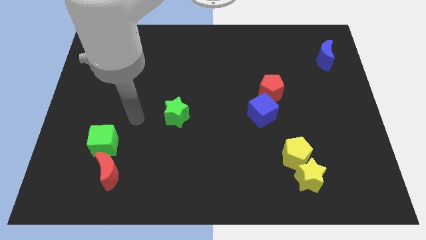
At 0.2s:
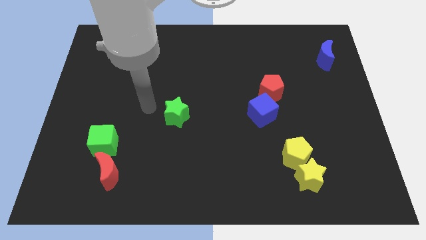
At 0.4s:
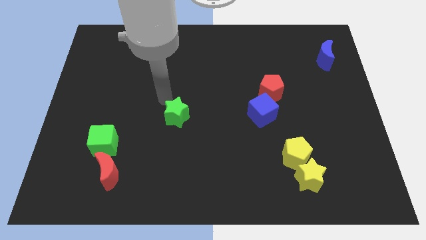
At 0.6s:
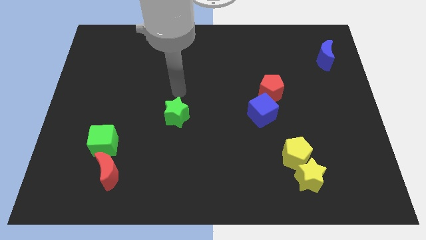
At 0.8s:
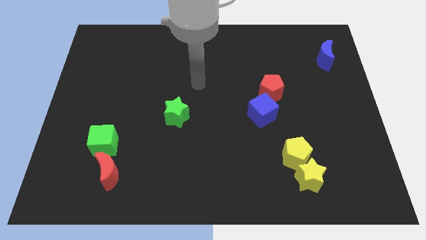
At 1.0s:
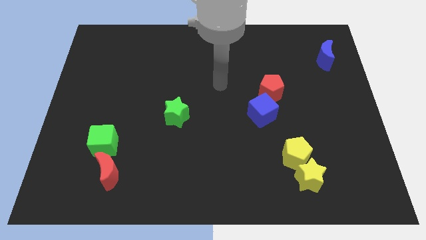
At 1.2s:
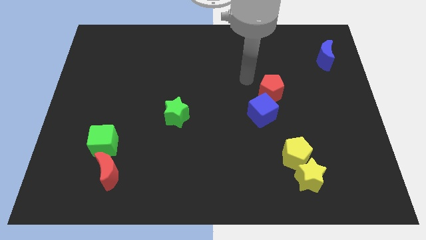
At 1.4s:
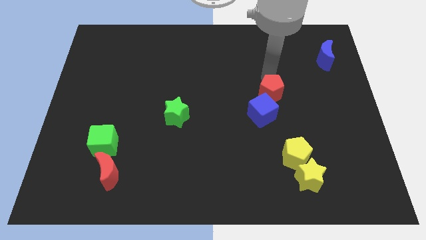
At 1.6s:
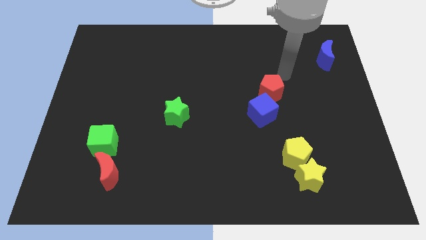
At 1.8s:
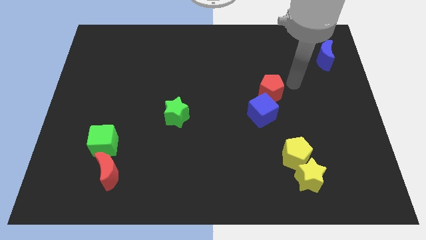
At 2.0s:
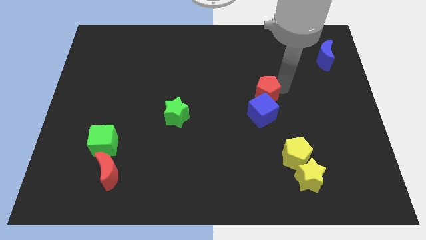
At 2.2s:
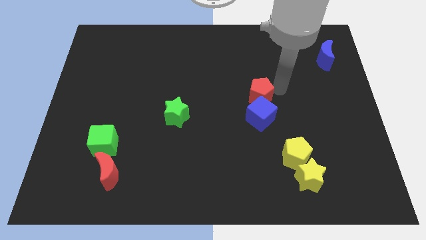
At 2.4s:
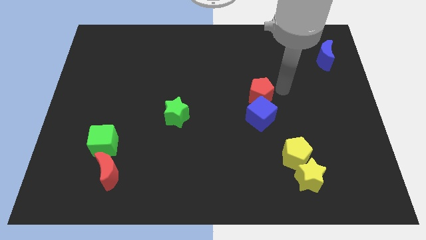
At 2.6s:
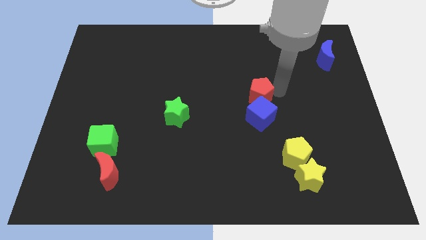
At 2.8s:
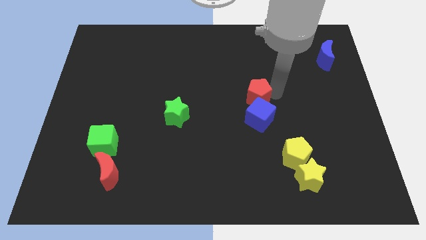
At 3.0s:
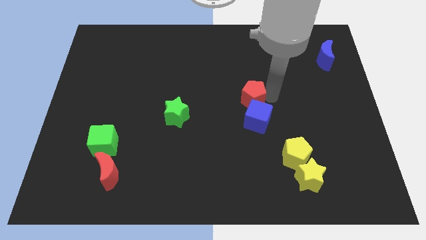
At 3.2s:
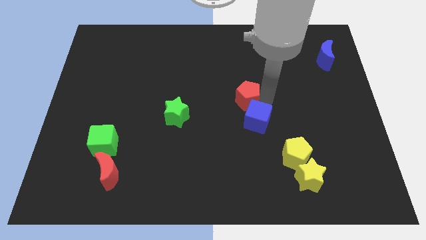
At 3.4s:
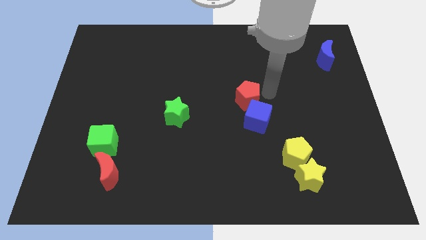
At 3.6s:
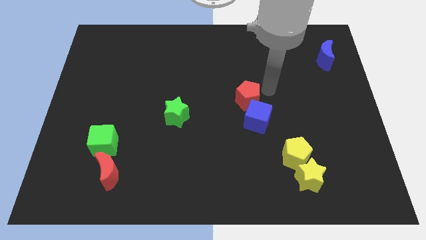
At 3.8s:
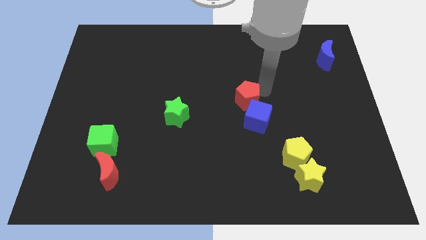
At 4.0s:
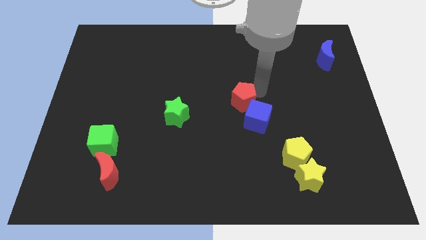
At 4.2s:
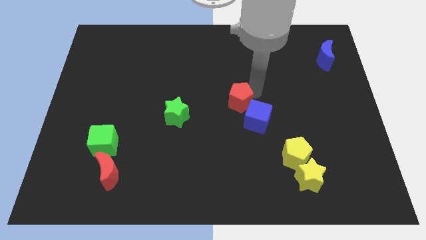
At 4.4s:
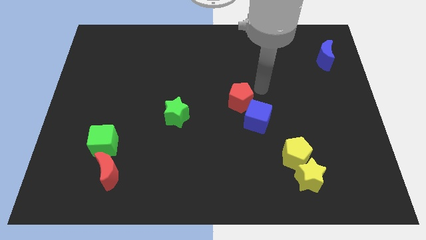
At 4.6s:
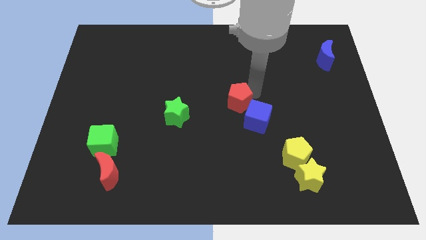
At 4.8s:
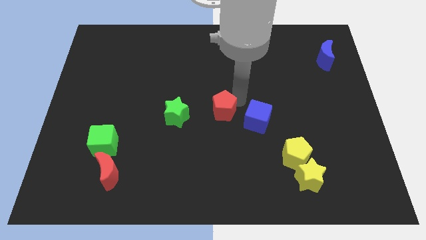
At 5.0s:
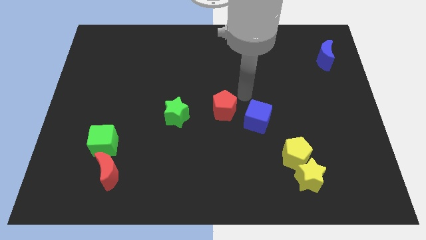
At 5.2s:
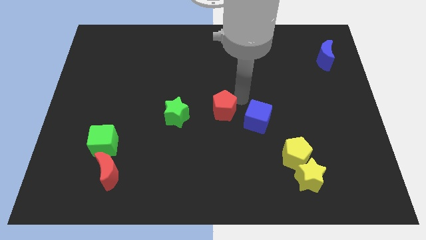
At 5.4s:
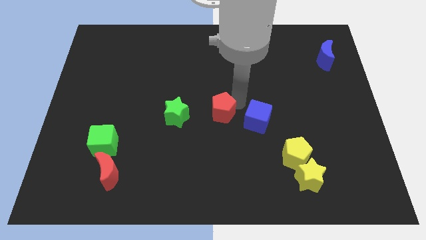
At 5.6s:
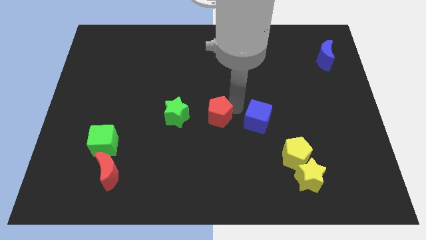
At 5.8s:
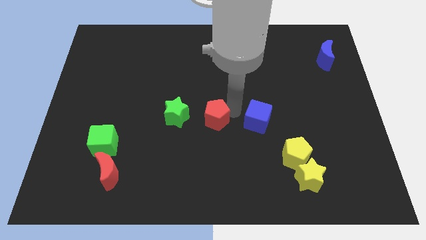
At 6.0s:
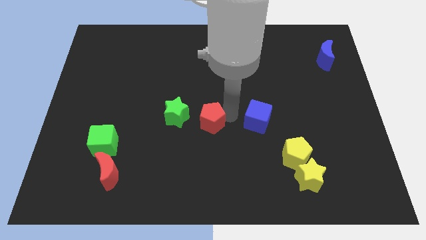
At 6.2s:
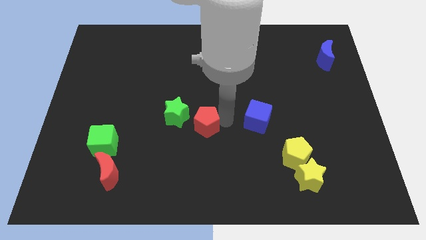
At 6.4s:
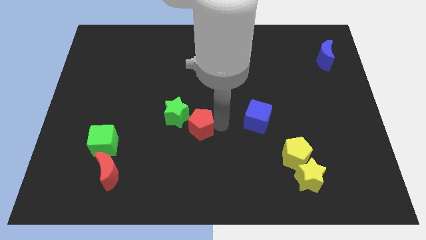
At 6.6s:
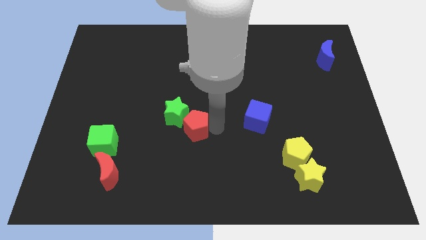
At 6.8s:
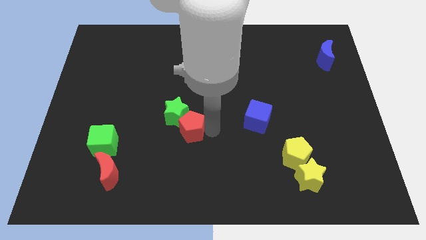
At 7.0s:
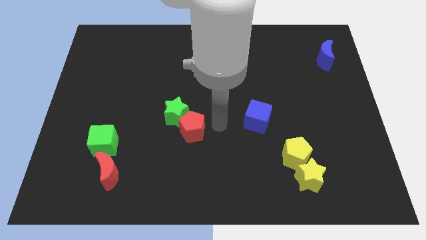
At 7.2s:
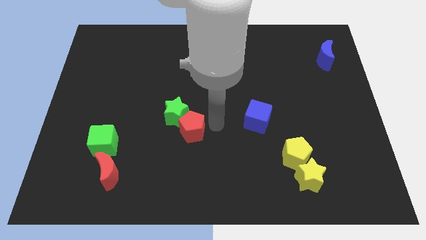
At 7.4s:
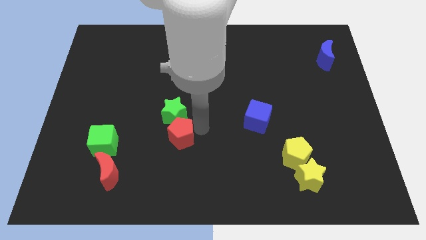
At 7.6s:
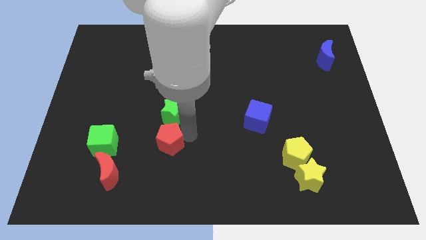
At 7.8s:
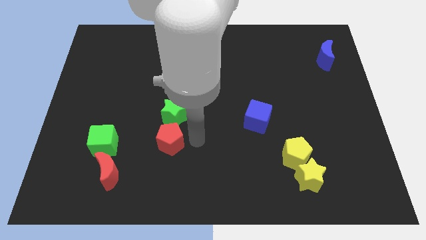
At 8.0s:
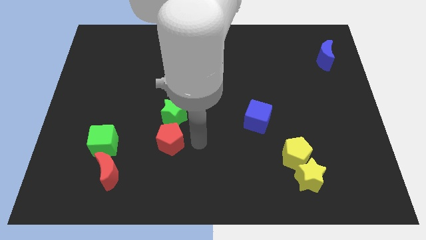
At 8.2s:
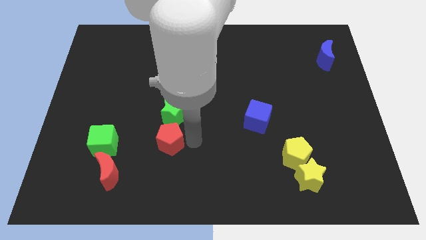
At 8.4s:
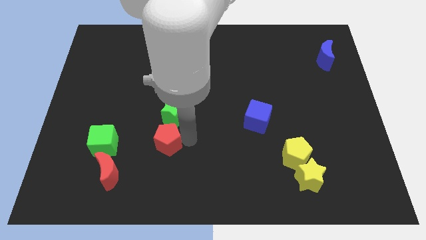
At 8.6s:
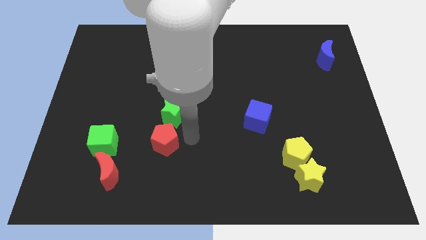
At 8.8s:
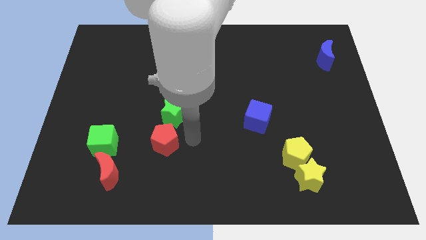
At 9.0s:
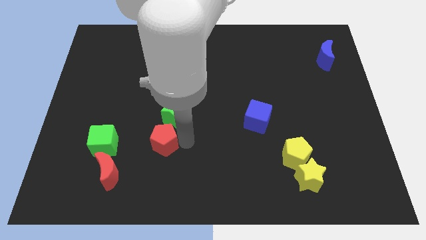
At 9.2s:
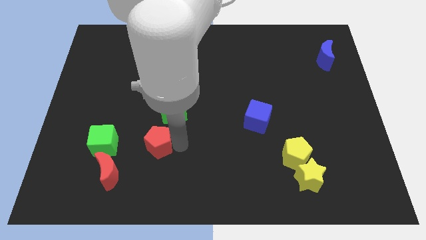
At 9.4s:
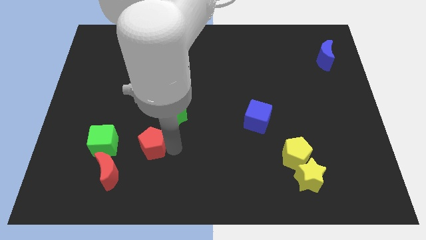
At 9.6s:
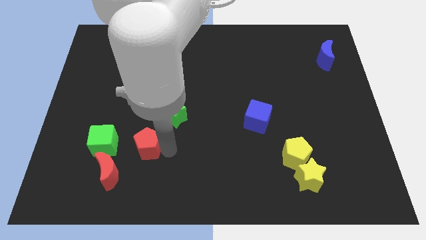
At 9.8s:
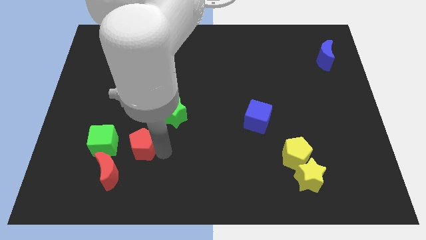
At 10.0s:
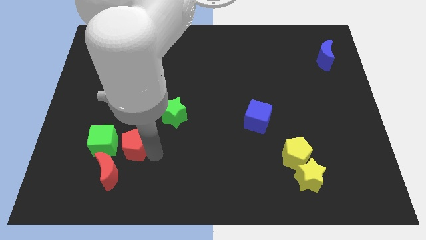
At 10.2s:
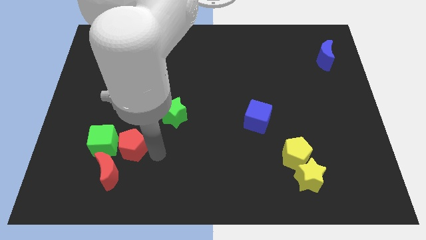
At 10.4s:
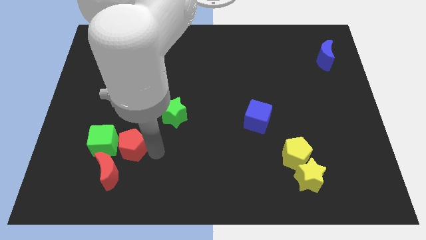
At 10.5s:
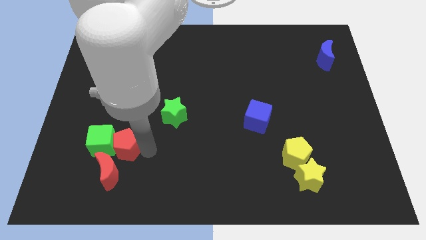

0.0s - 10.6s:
put the red pentagon to the green cube

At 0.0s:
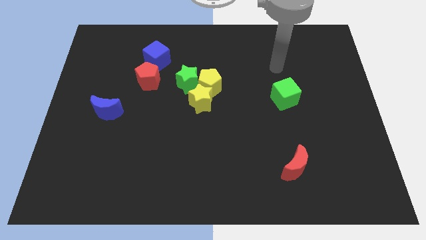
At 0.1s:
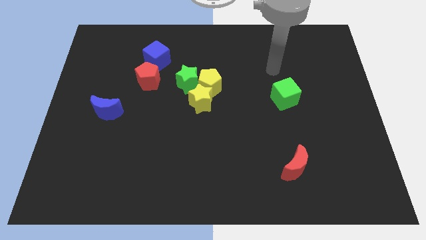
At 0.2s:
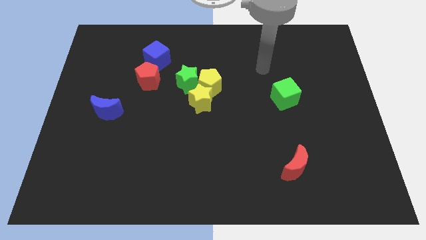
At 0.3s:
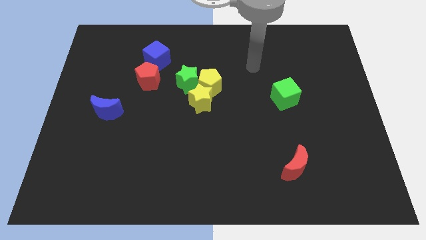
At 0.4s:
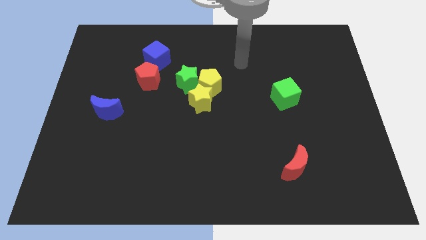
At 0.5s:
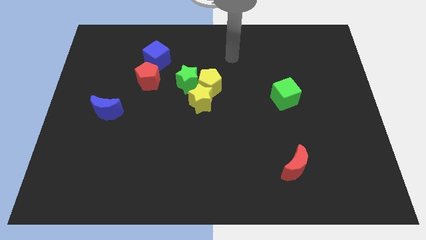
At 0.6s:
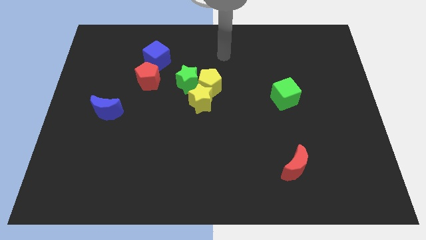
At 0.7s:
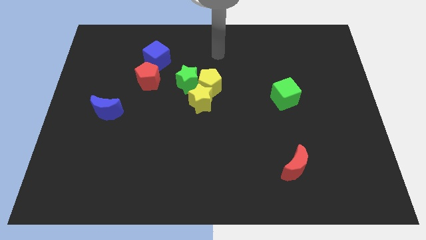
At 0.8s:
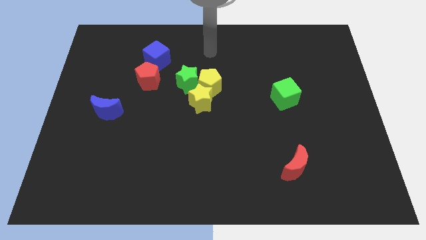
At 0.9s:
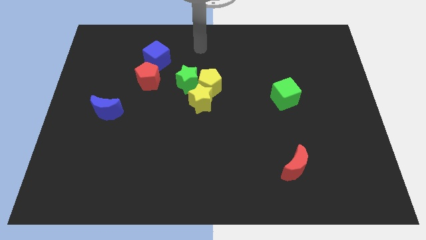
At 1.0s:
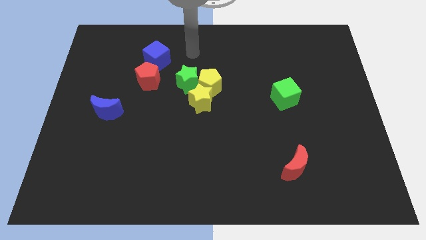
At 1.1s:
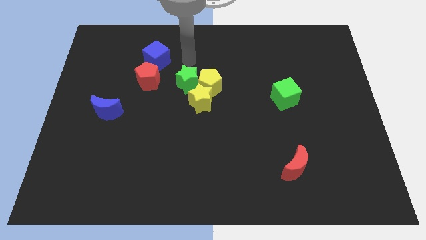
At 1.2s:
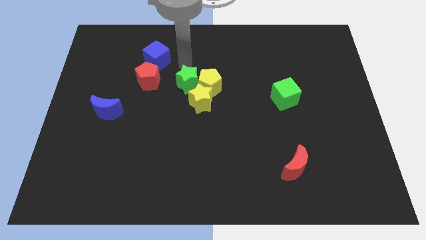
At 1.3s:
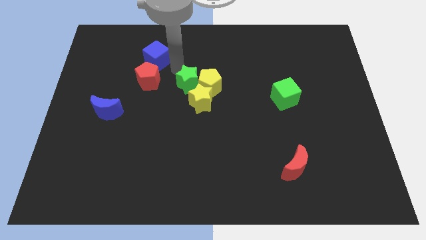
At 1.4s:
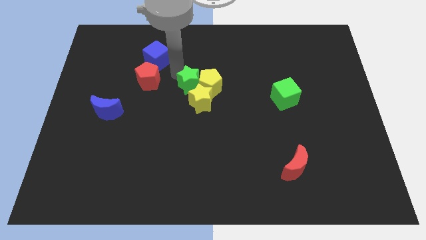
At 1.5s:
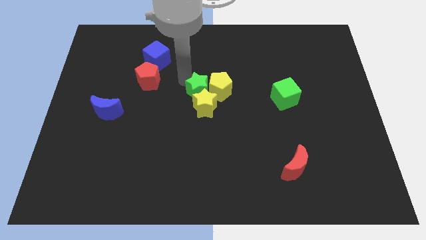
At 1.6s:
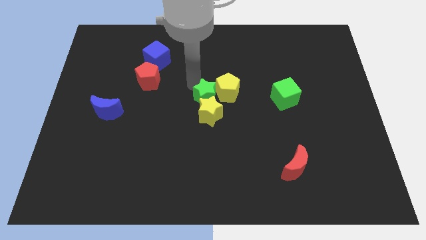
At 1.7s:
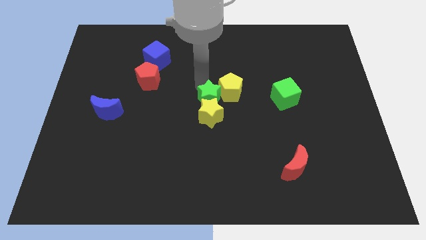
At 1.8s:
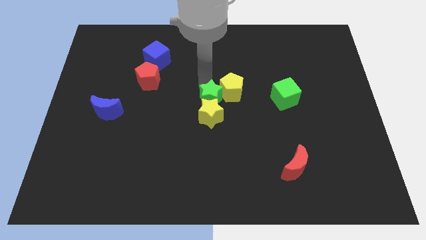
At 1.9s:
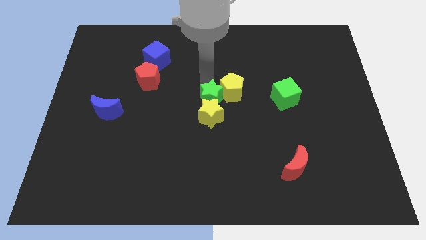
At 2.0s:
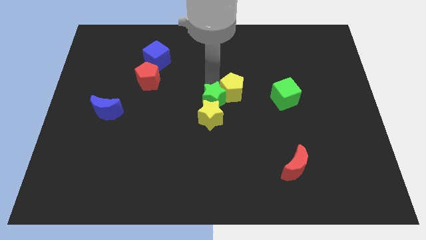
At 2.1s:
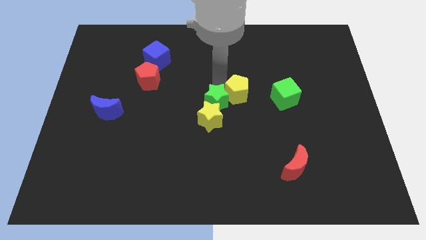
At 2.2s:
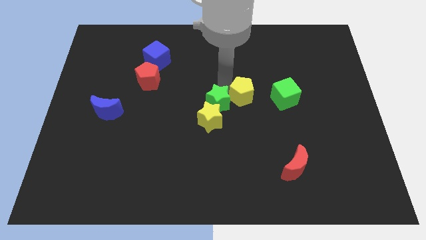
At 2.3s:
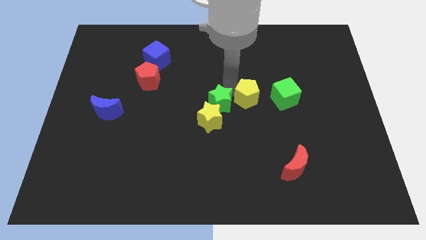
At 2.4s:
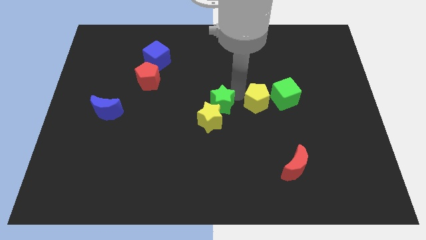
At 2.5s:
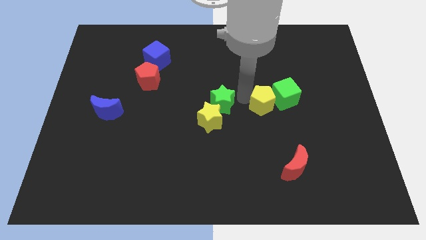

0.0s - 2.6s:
push the yellow pentagon close to the green cube

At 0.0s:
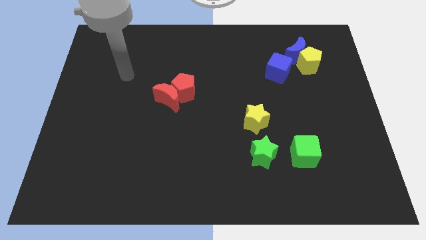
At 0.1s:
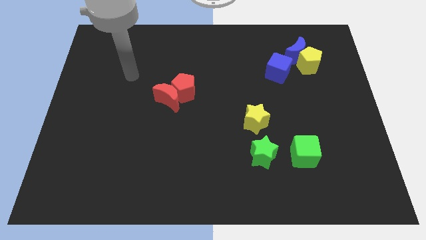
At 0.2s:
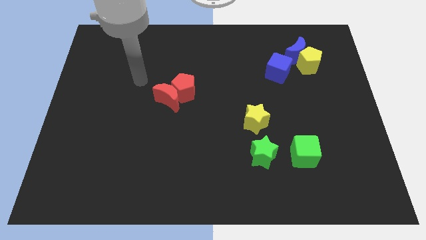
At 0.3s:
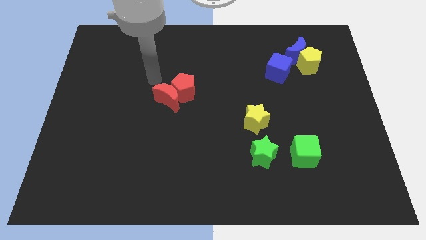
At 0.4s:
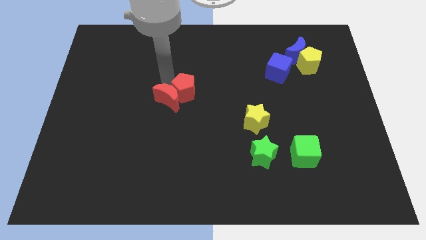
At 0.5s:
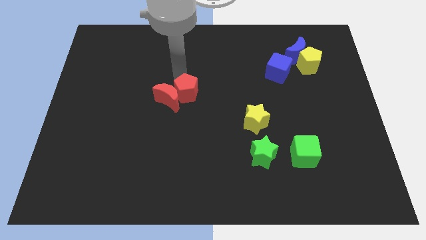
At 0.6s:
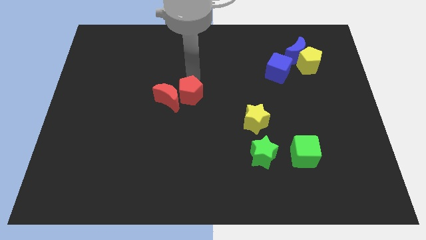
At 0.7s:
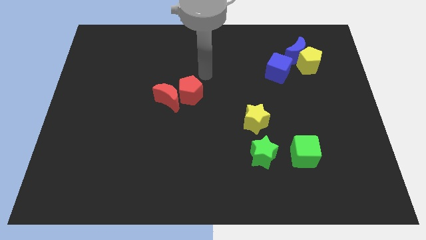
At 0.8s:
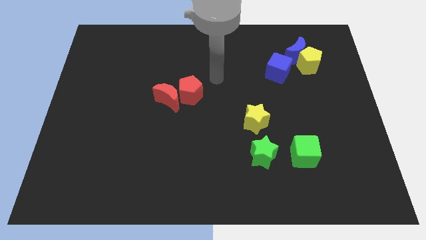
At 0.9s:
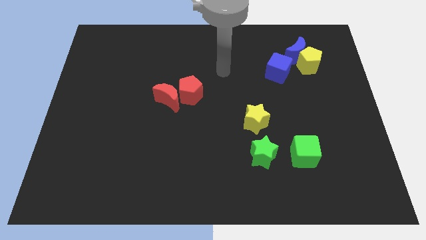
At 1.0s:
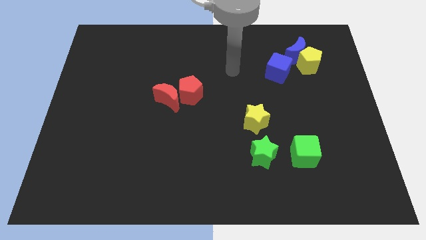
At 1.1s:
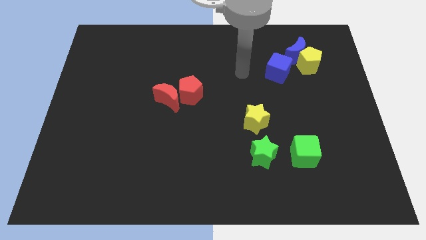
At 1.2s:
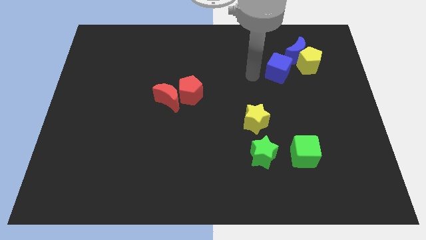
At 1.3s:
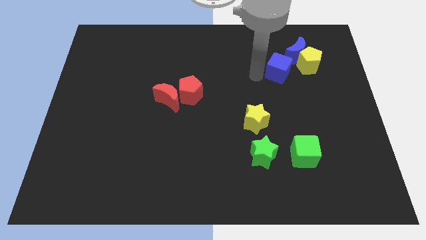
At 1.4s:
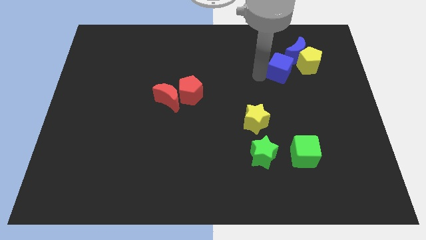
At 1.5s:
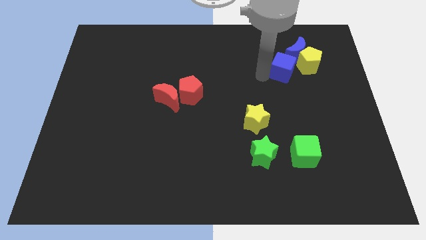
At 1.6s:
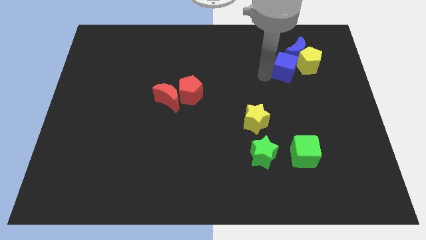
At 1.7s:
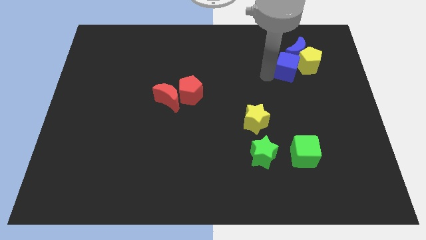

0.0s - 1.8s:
slide the blue cube close to the yellow pentagon
